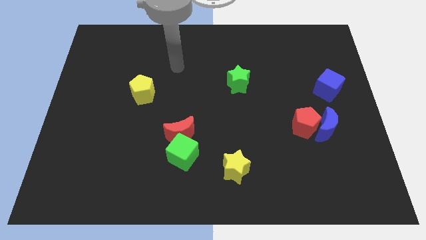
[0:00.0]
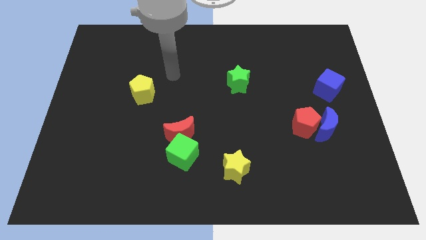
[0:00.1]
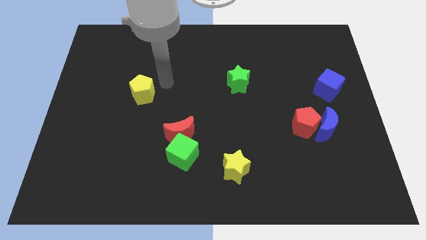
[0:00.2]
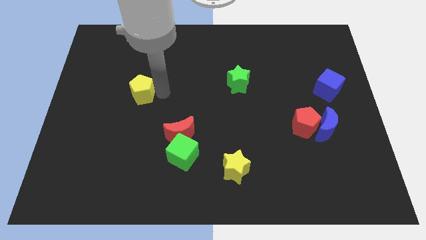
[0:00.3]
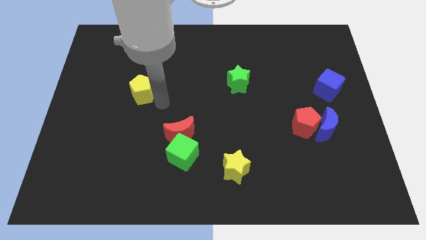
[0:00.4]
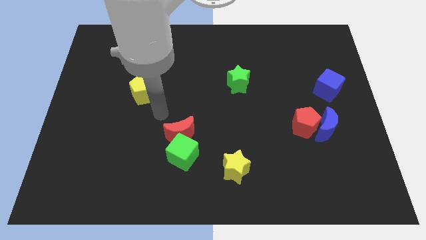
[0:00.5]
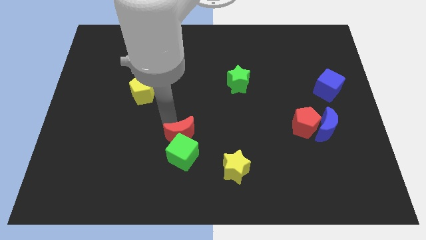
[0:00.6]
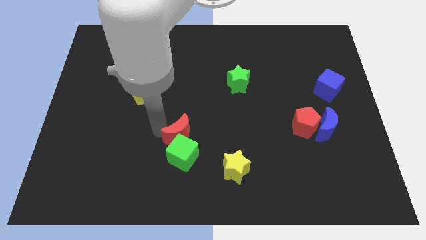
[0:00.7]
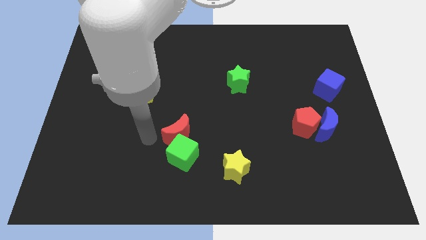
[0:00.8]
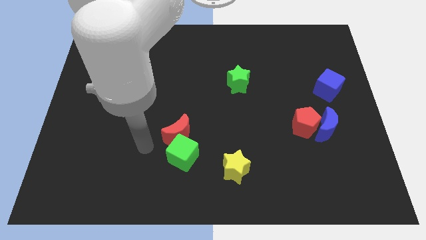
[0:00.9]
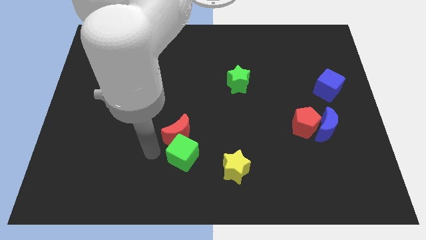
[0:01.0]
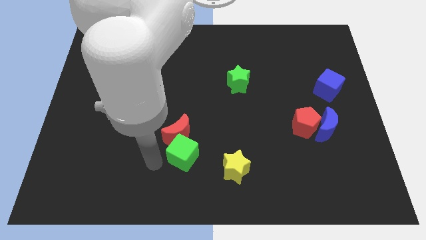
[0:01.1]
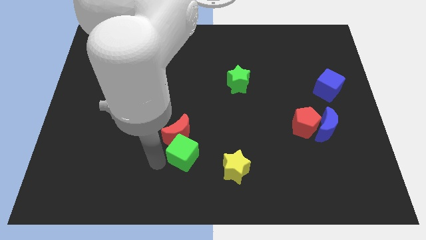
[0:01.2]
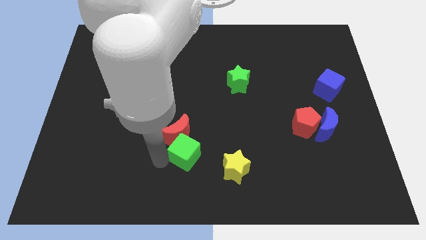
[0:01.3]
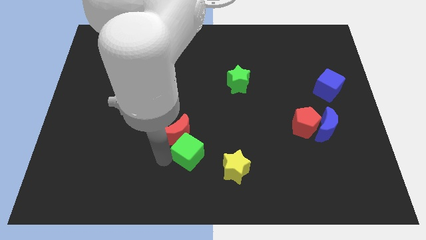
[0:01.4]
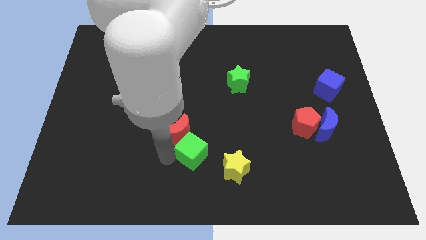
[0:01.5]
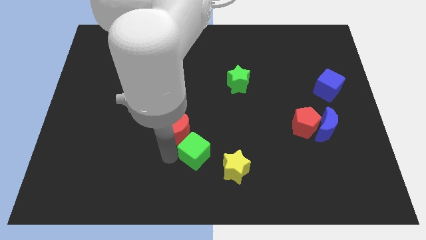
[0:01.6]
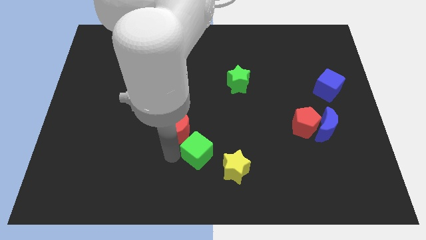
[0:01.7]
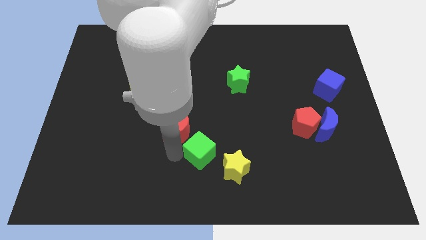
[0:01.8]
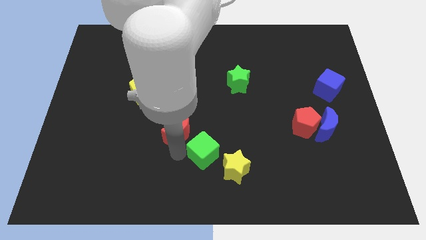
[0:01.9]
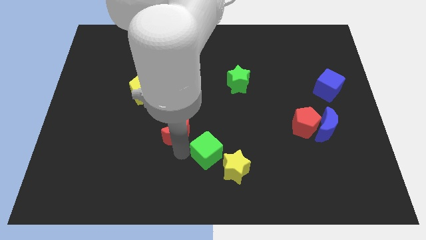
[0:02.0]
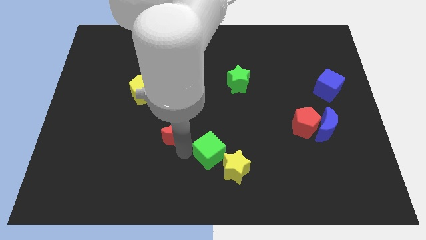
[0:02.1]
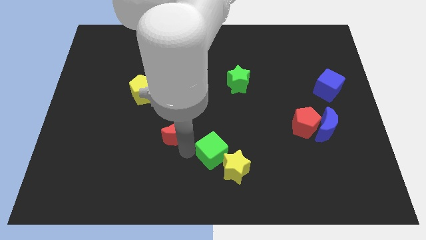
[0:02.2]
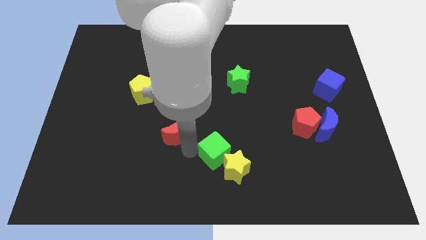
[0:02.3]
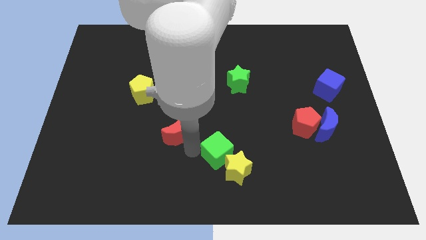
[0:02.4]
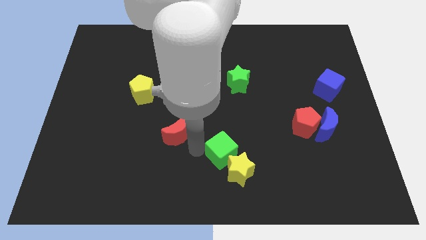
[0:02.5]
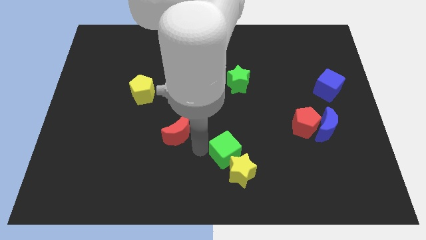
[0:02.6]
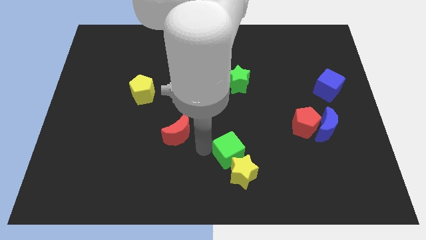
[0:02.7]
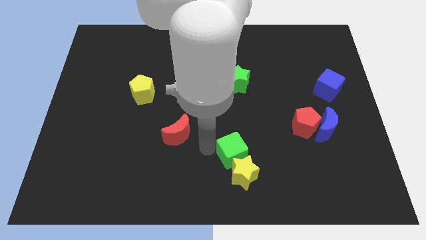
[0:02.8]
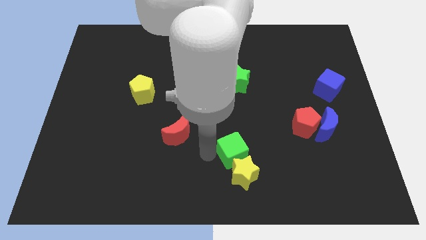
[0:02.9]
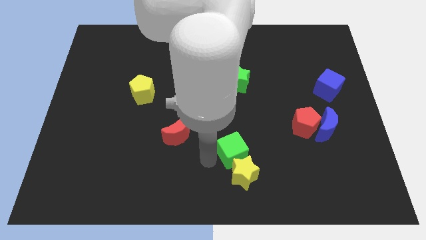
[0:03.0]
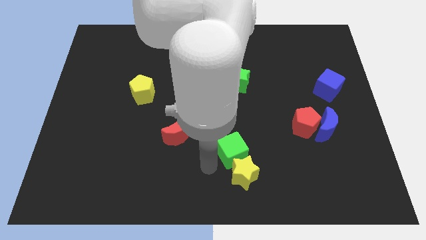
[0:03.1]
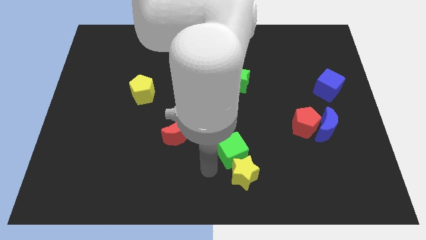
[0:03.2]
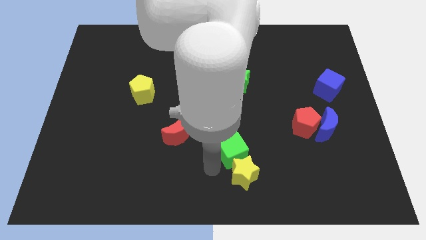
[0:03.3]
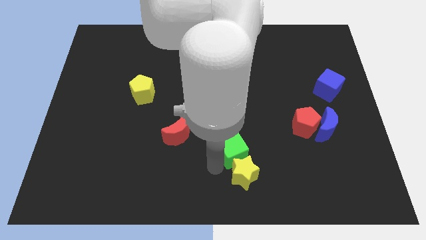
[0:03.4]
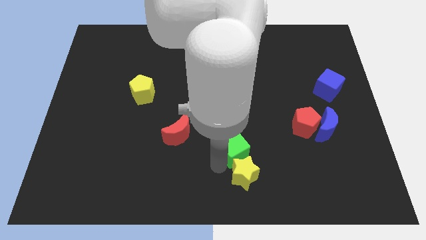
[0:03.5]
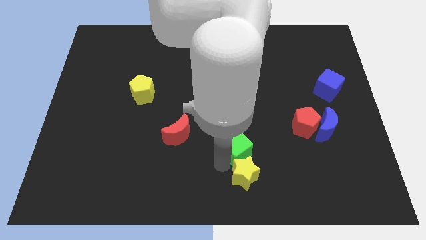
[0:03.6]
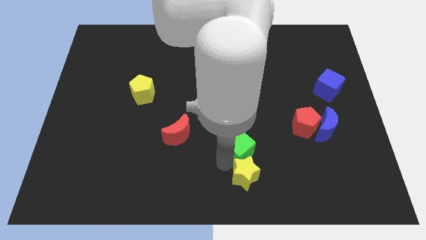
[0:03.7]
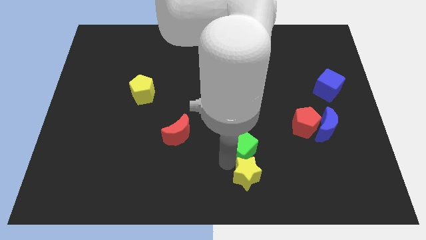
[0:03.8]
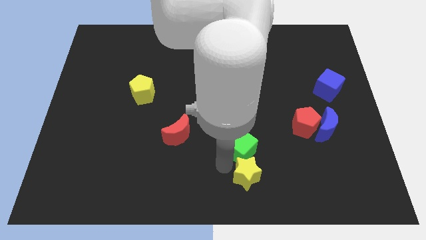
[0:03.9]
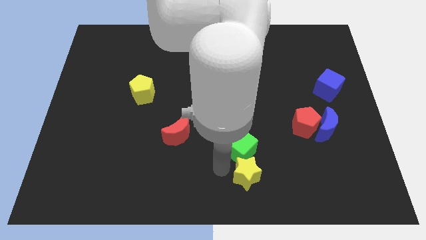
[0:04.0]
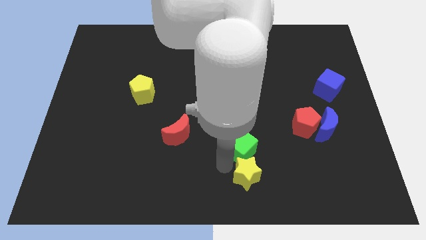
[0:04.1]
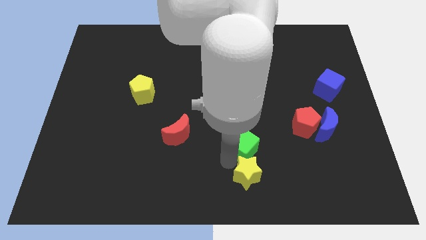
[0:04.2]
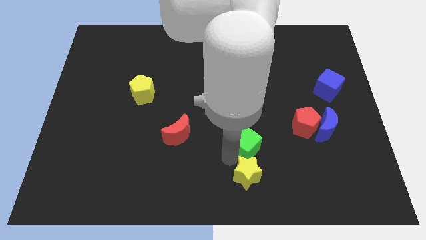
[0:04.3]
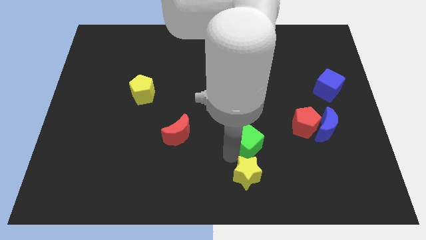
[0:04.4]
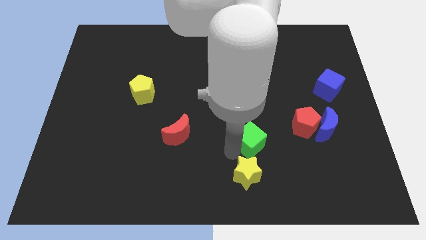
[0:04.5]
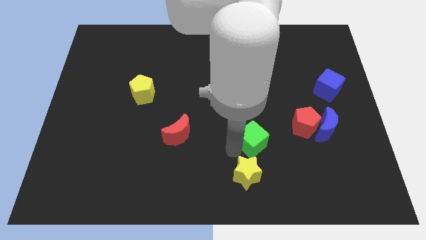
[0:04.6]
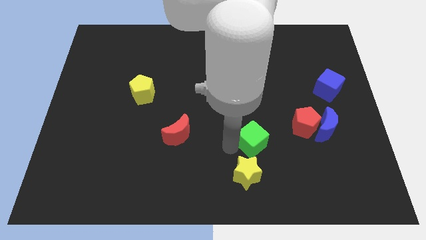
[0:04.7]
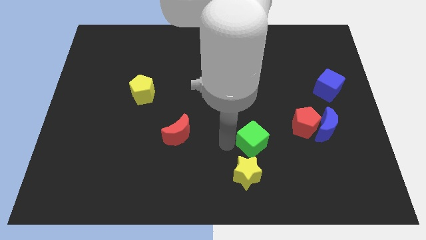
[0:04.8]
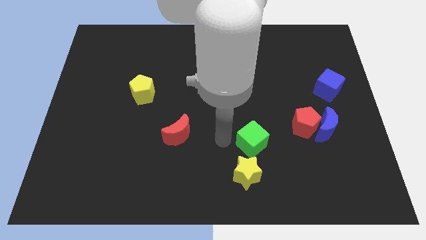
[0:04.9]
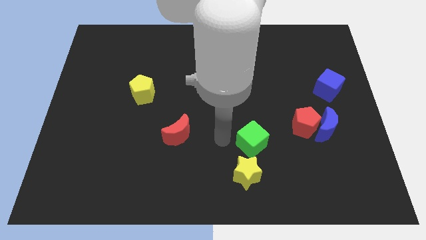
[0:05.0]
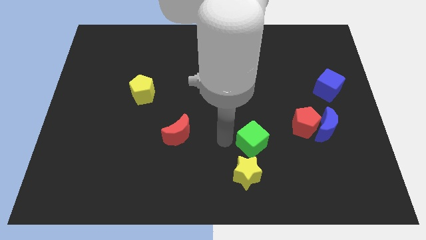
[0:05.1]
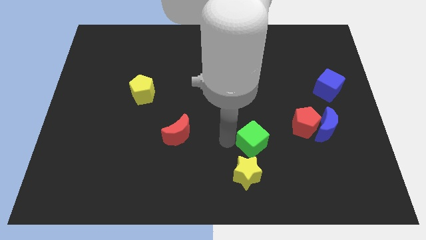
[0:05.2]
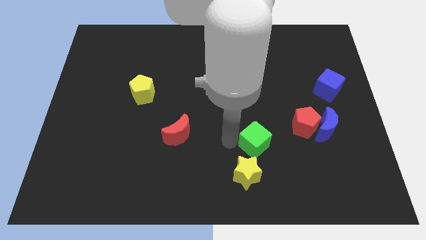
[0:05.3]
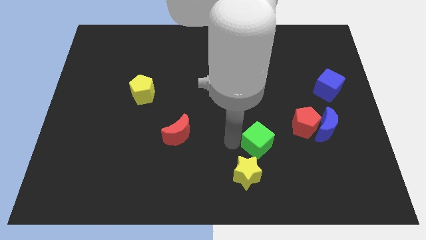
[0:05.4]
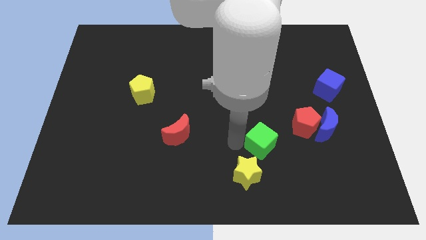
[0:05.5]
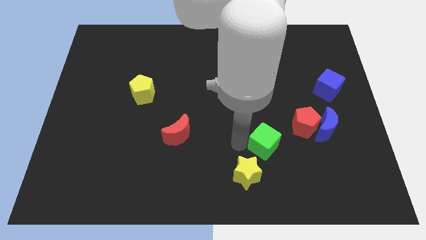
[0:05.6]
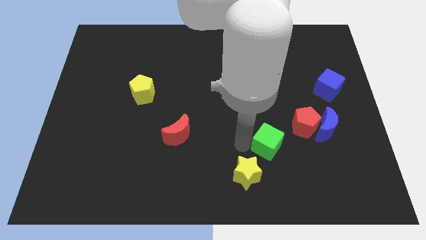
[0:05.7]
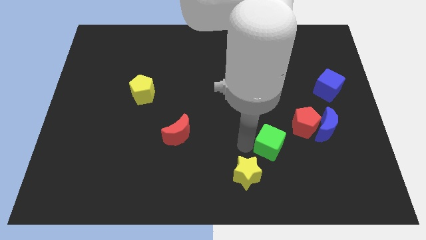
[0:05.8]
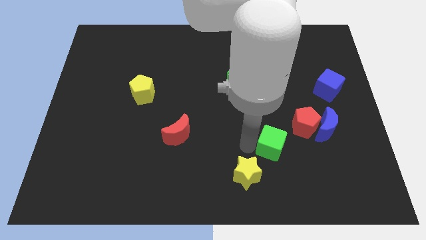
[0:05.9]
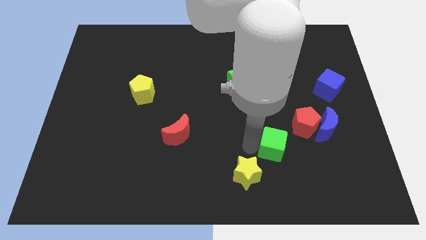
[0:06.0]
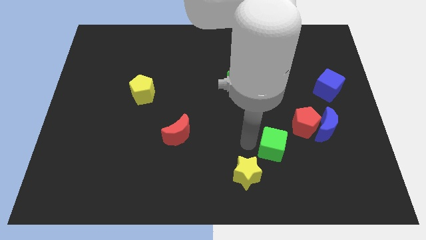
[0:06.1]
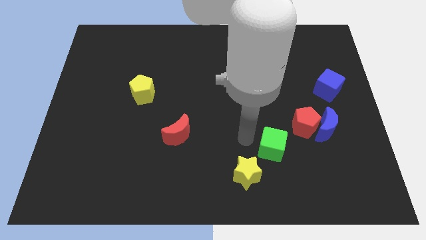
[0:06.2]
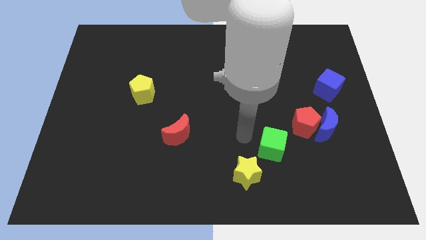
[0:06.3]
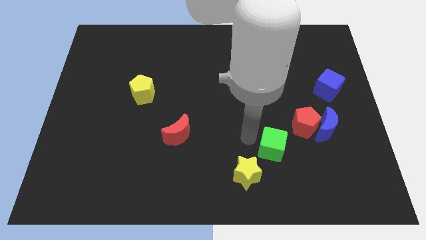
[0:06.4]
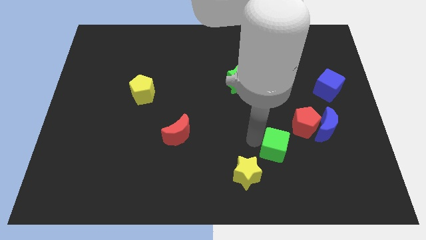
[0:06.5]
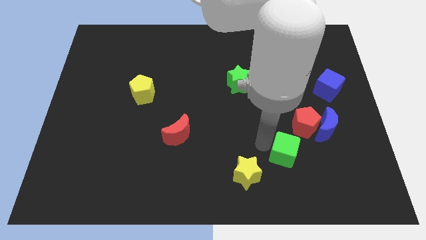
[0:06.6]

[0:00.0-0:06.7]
push the green cube to the right

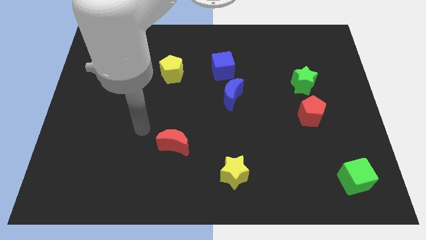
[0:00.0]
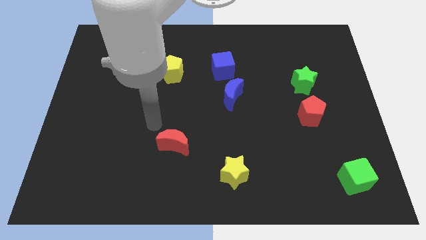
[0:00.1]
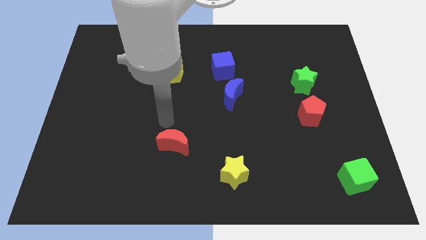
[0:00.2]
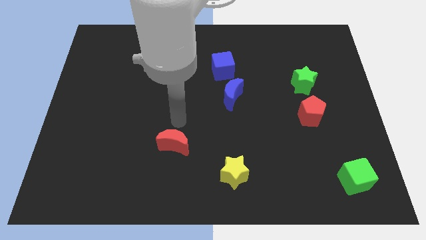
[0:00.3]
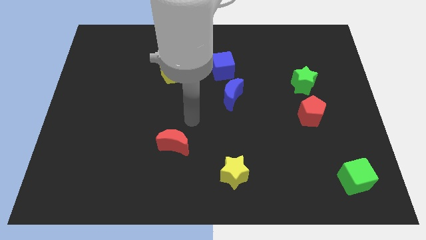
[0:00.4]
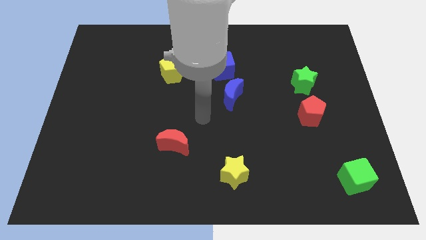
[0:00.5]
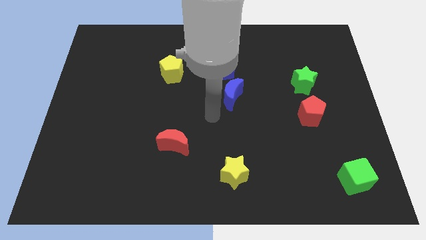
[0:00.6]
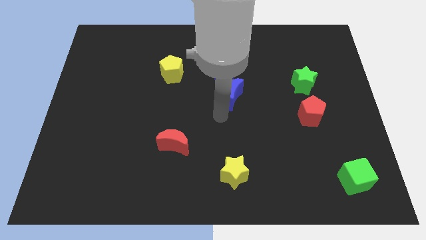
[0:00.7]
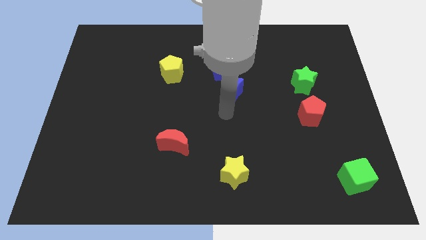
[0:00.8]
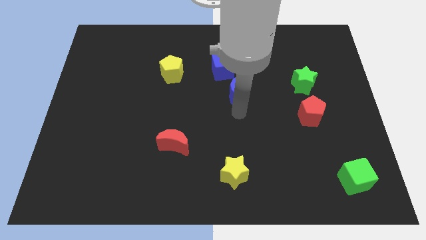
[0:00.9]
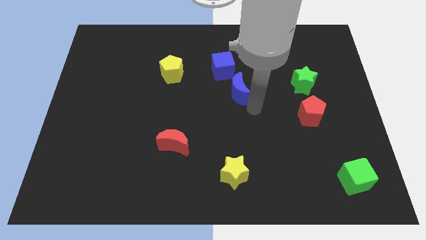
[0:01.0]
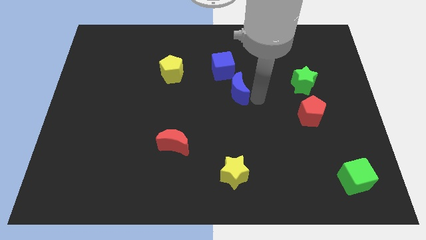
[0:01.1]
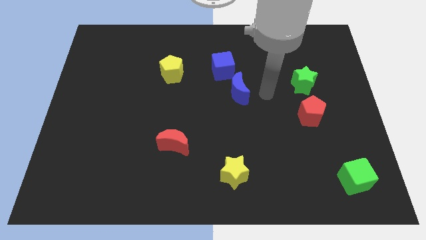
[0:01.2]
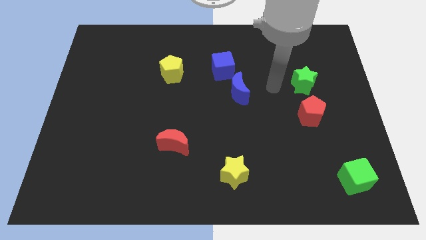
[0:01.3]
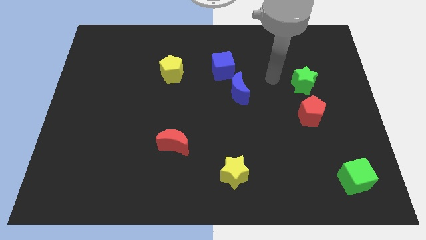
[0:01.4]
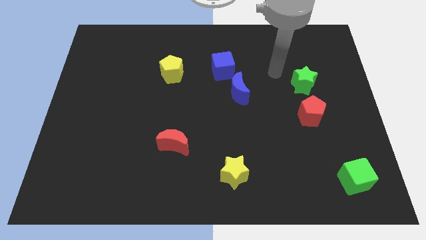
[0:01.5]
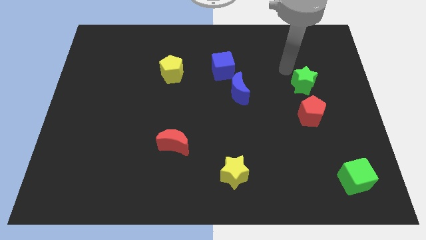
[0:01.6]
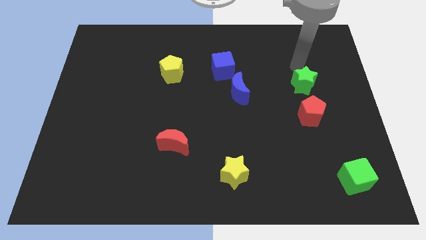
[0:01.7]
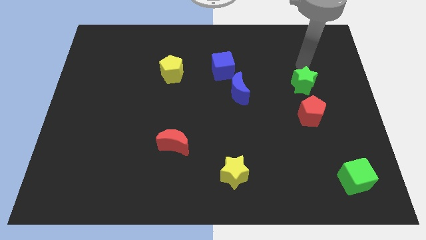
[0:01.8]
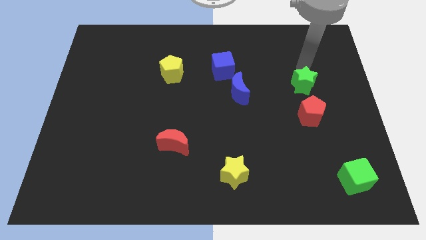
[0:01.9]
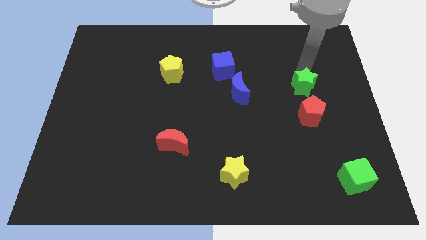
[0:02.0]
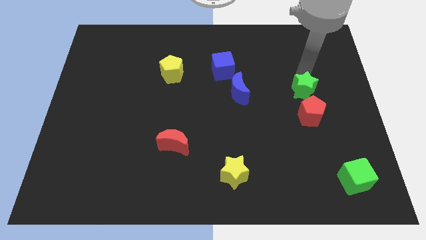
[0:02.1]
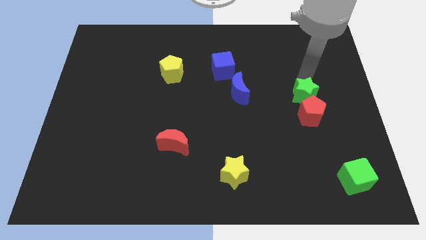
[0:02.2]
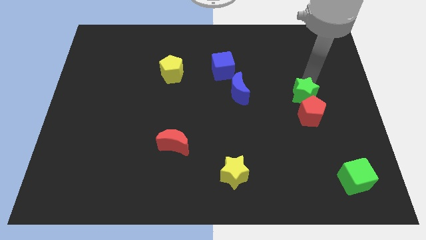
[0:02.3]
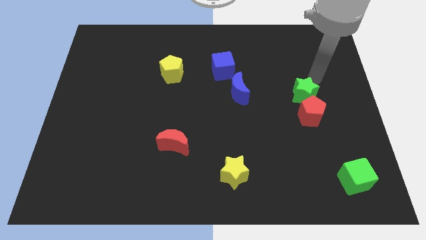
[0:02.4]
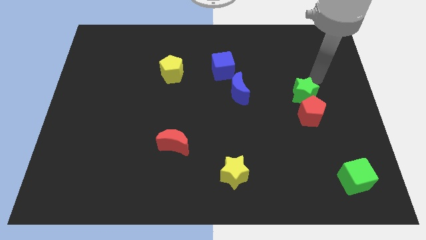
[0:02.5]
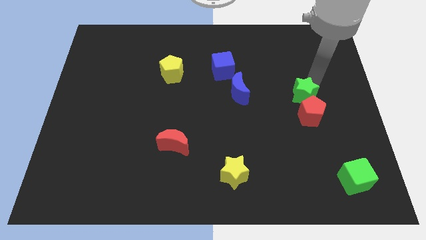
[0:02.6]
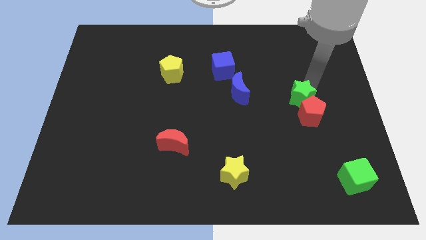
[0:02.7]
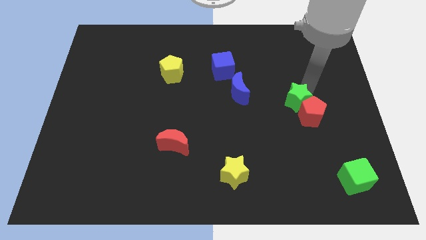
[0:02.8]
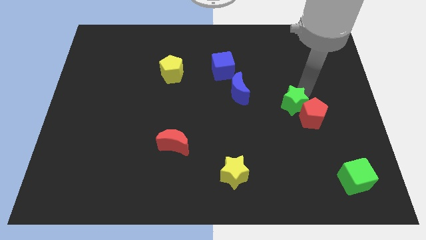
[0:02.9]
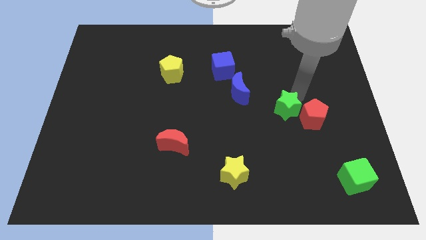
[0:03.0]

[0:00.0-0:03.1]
move the green star downwards somewhat
